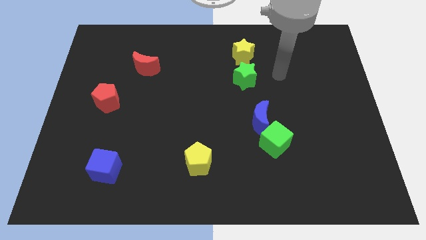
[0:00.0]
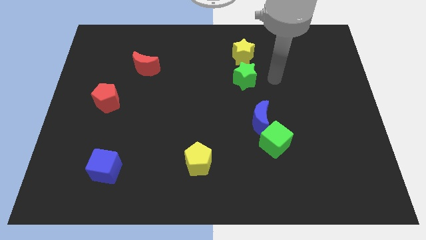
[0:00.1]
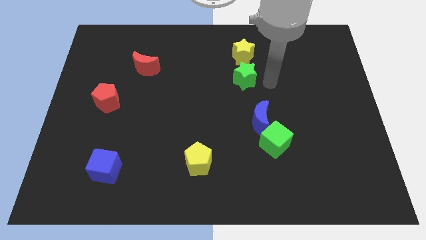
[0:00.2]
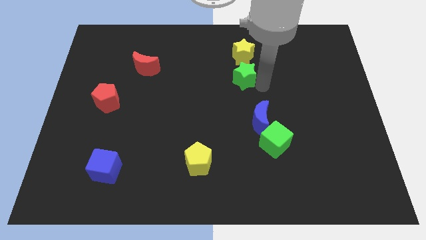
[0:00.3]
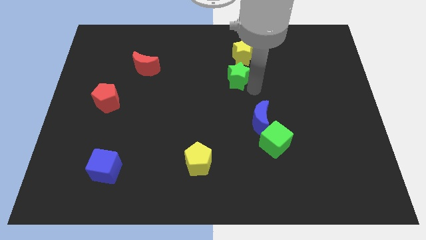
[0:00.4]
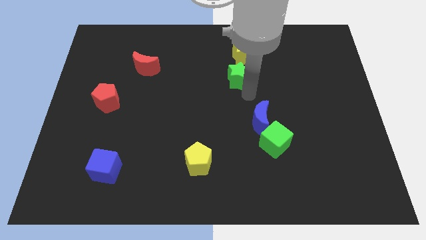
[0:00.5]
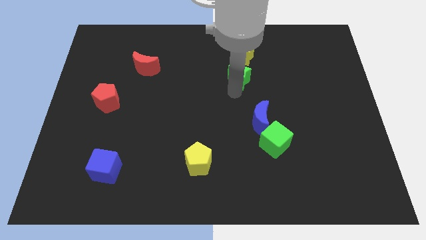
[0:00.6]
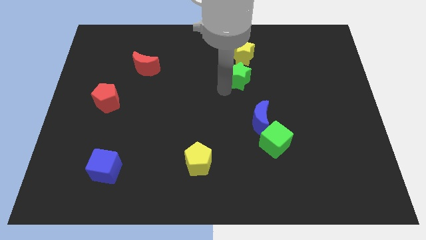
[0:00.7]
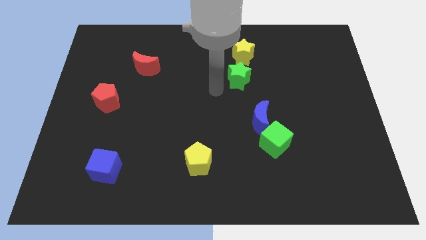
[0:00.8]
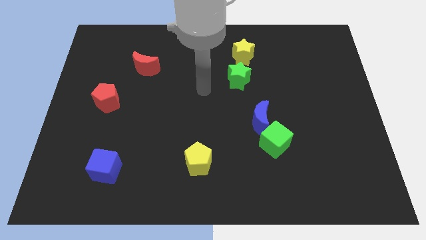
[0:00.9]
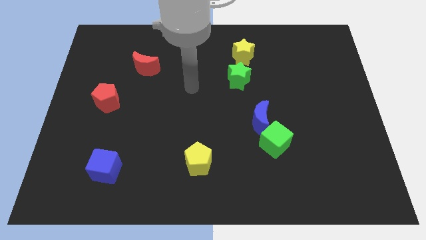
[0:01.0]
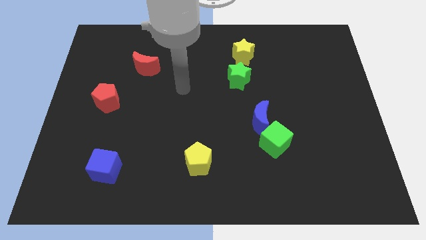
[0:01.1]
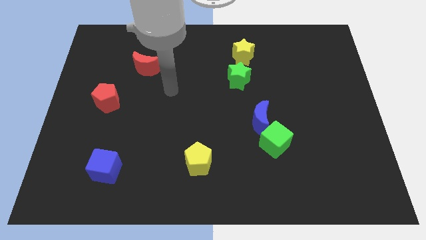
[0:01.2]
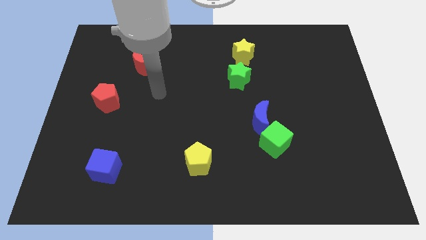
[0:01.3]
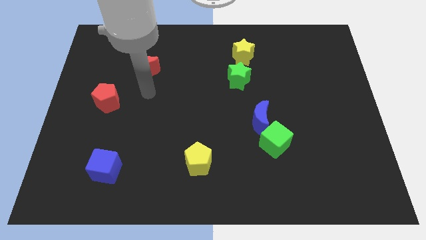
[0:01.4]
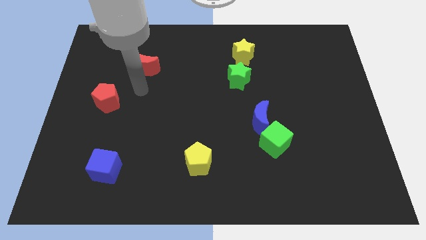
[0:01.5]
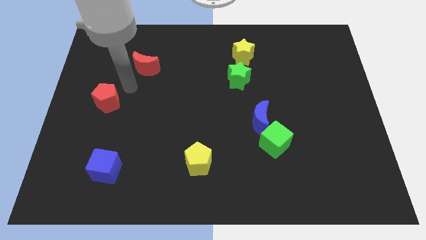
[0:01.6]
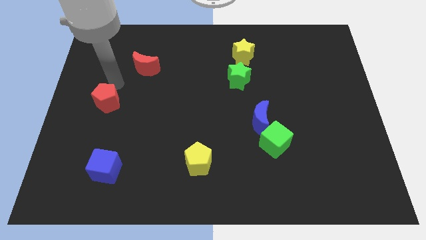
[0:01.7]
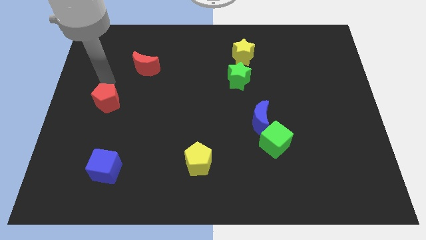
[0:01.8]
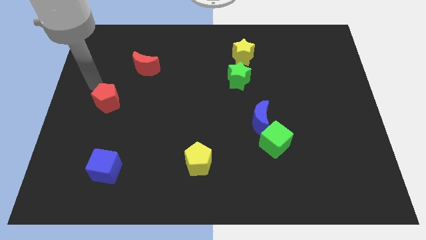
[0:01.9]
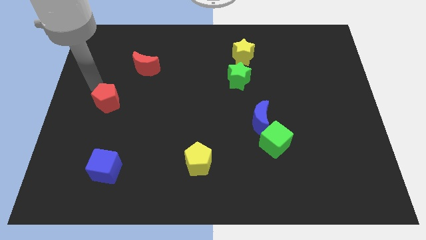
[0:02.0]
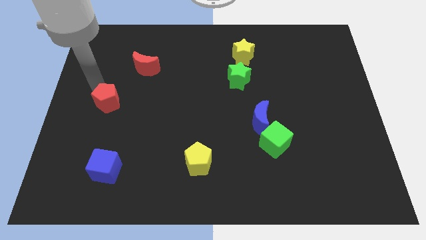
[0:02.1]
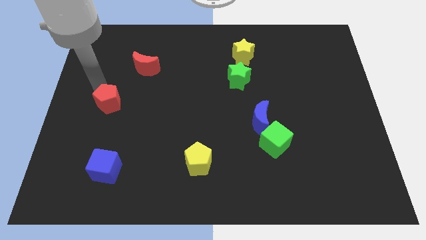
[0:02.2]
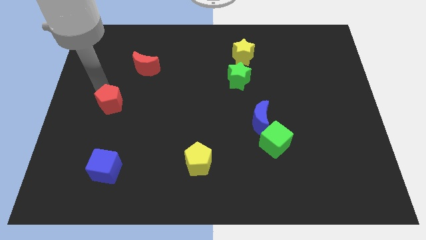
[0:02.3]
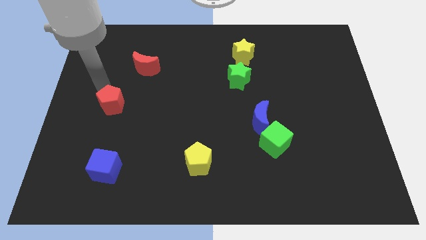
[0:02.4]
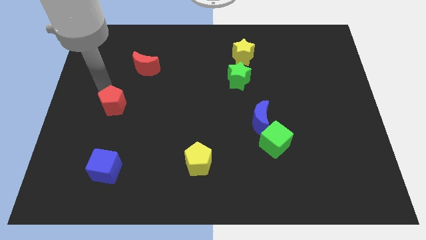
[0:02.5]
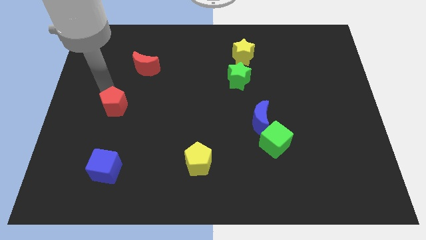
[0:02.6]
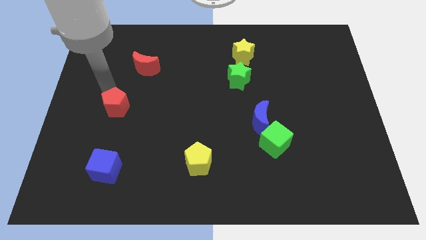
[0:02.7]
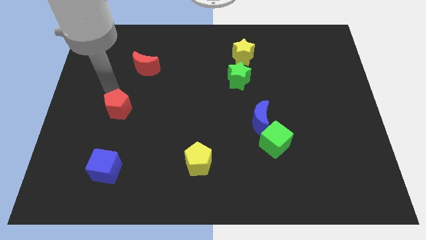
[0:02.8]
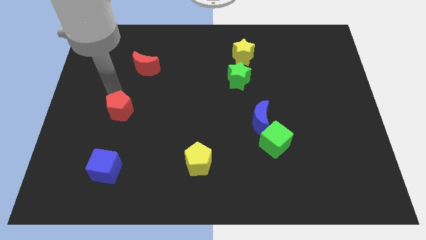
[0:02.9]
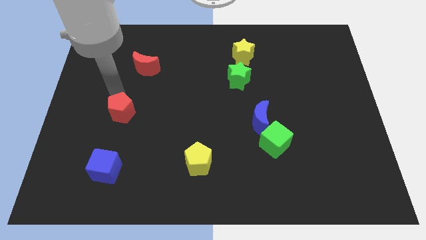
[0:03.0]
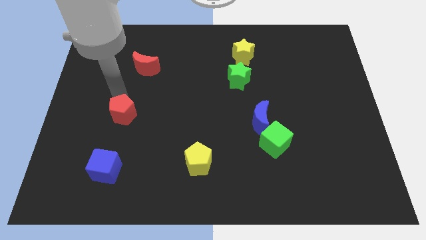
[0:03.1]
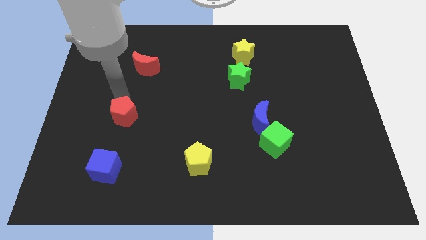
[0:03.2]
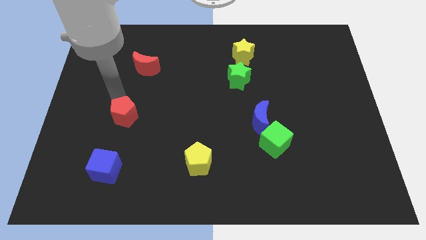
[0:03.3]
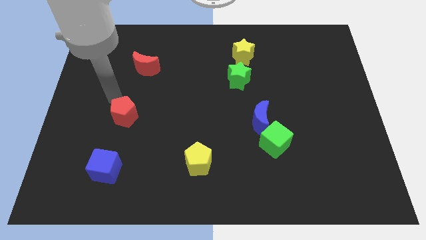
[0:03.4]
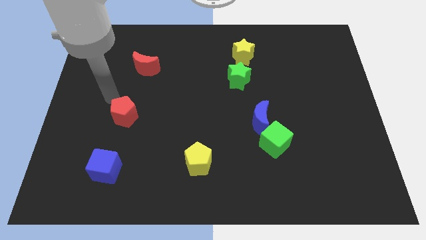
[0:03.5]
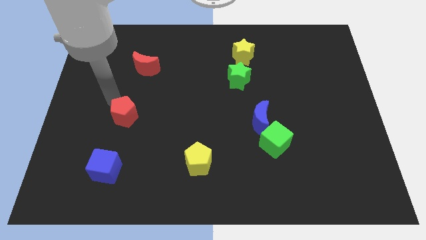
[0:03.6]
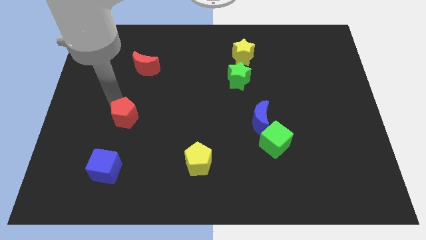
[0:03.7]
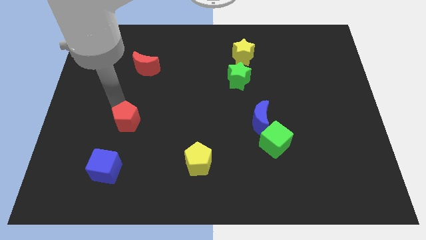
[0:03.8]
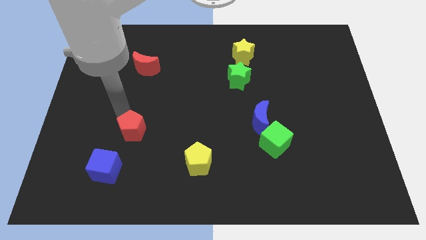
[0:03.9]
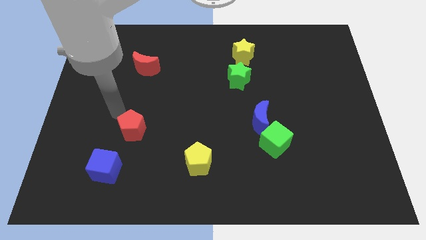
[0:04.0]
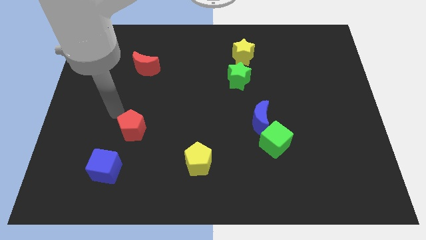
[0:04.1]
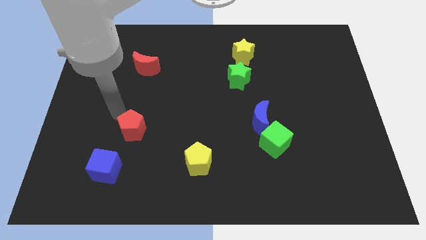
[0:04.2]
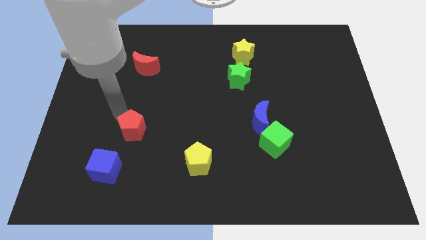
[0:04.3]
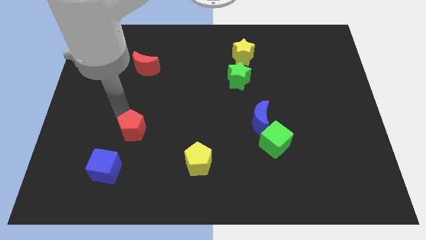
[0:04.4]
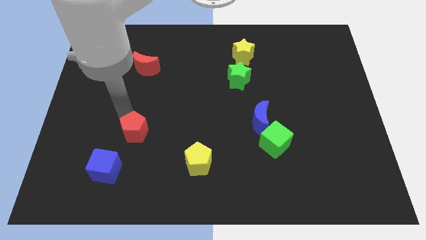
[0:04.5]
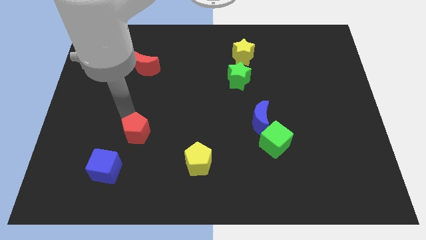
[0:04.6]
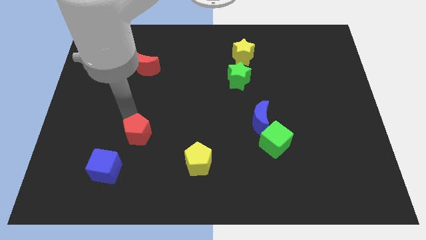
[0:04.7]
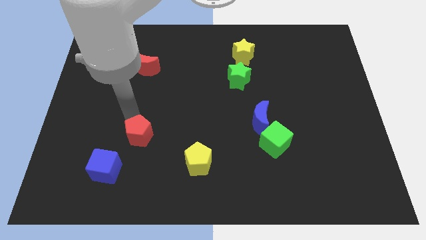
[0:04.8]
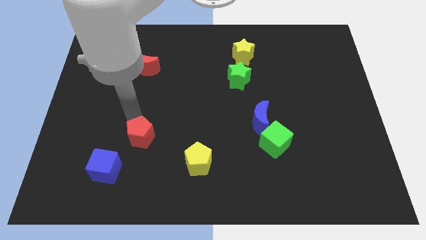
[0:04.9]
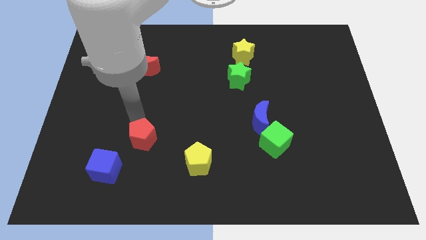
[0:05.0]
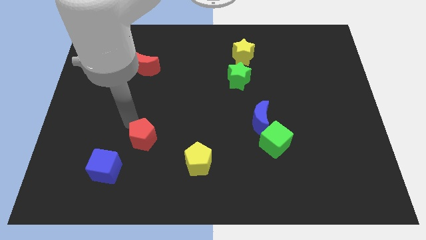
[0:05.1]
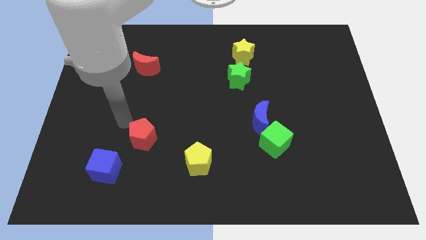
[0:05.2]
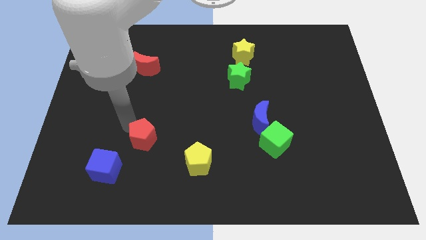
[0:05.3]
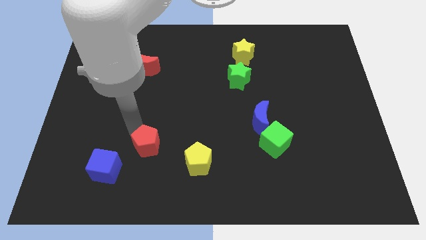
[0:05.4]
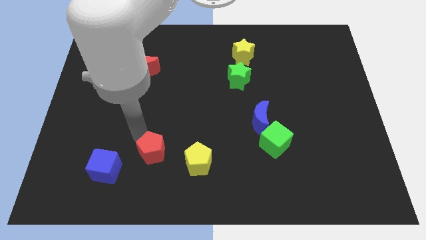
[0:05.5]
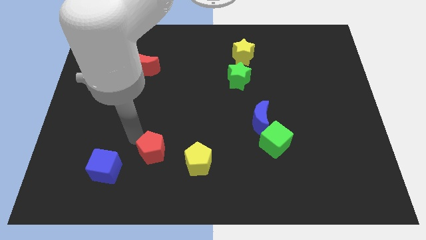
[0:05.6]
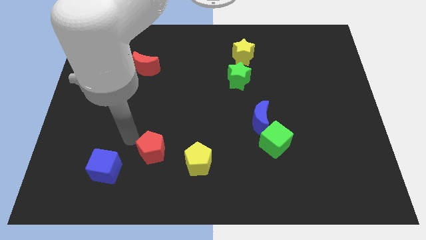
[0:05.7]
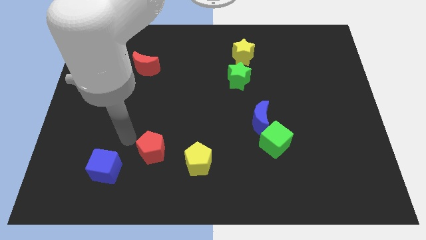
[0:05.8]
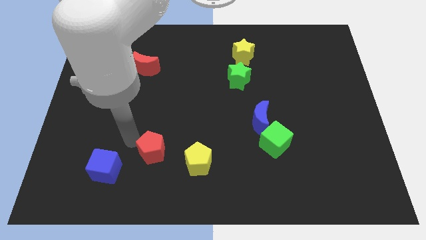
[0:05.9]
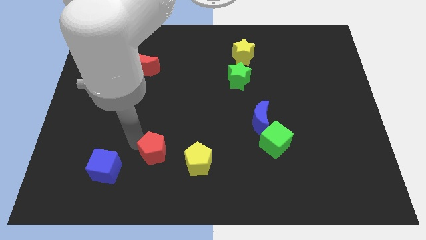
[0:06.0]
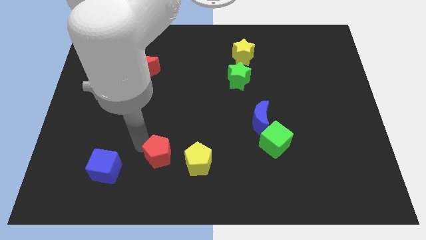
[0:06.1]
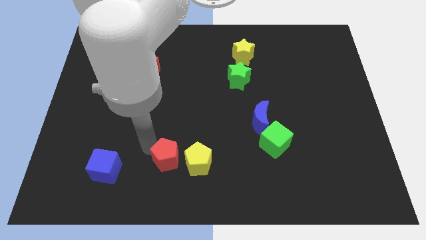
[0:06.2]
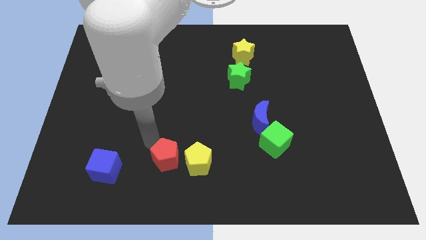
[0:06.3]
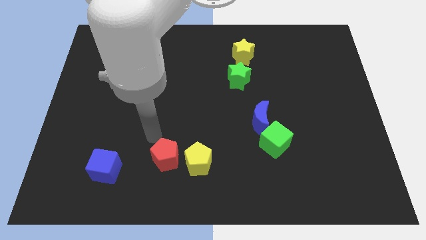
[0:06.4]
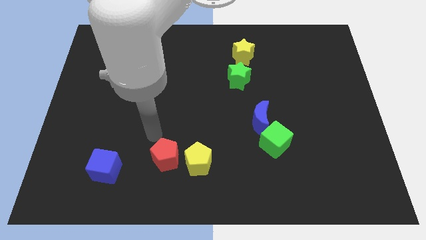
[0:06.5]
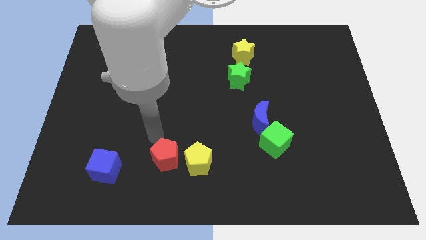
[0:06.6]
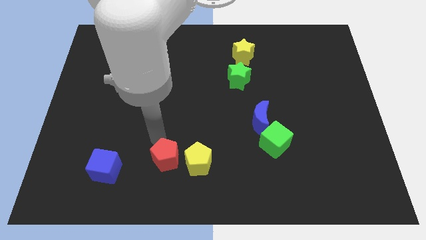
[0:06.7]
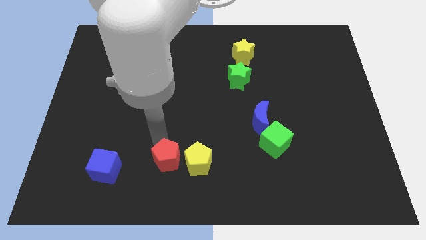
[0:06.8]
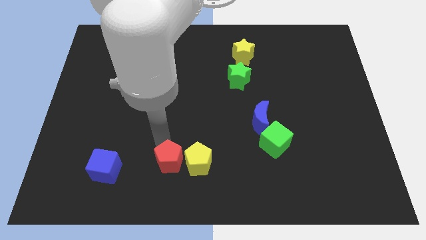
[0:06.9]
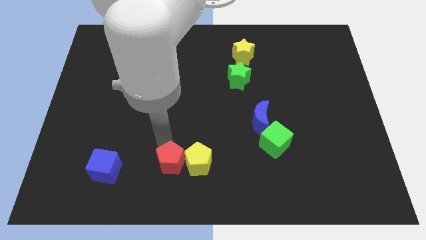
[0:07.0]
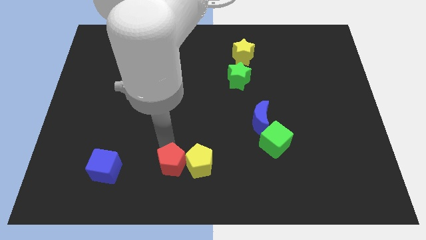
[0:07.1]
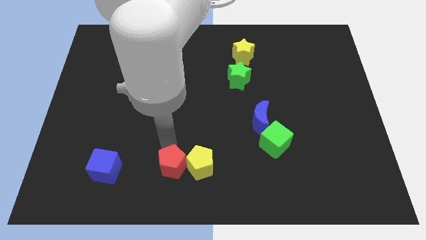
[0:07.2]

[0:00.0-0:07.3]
move the red pentagon to the bottom
